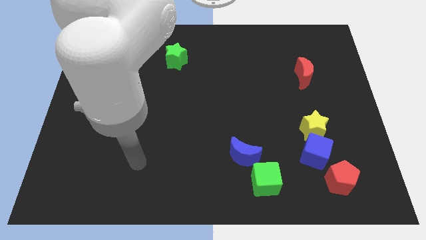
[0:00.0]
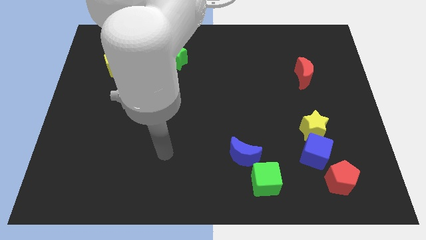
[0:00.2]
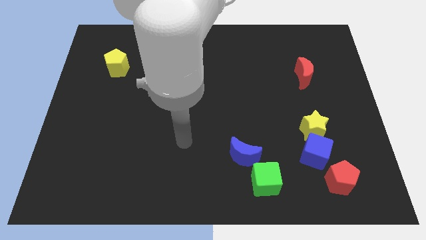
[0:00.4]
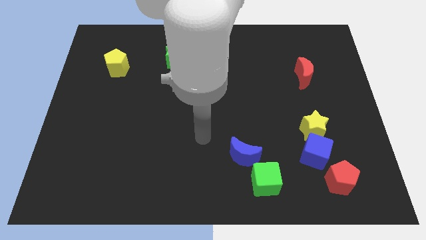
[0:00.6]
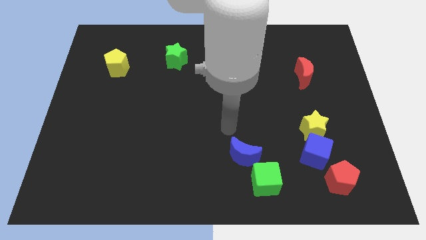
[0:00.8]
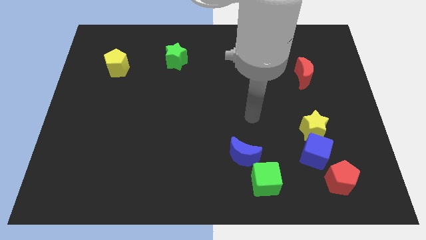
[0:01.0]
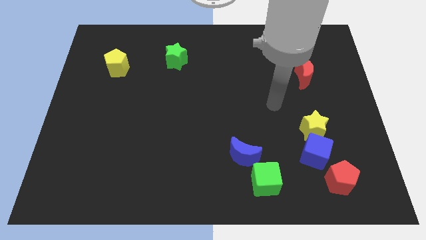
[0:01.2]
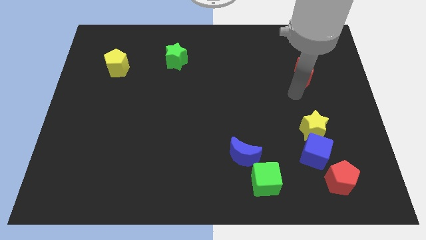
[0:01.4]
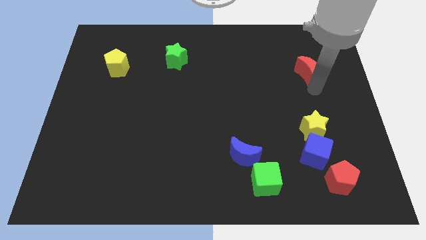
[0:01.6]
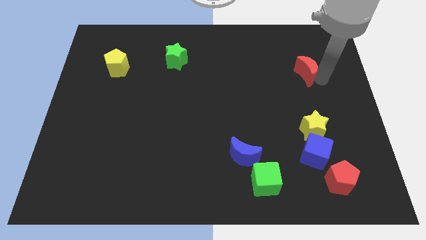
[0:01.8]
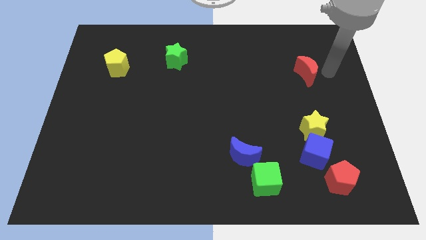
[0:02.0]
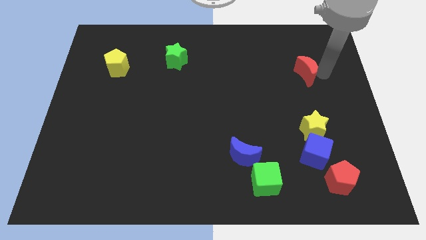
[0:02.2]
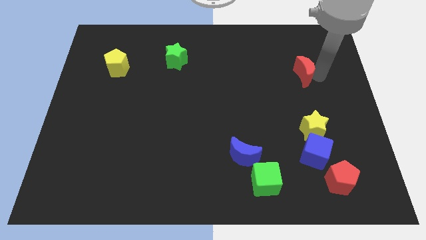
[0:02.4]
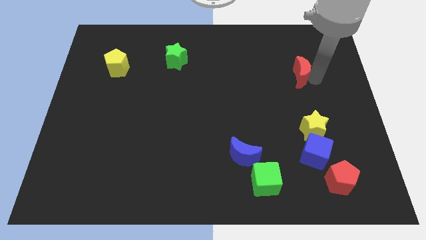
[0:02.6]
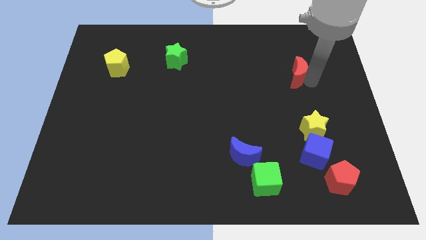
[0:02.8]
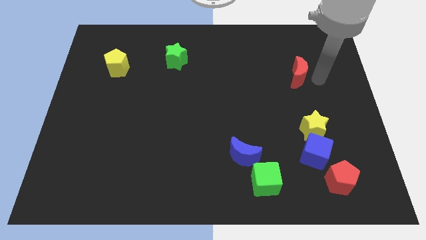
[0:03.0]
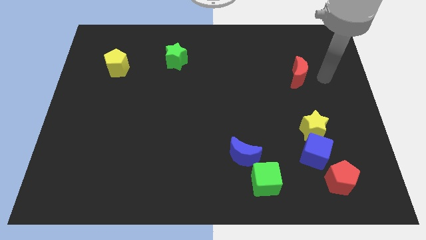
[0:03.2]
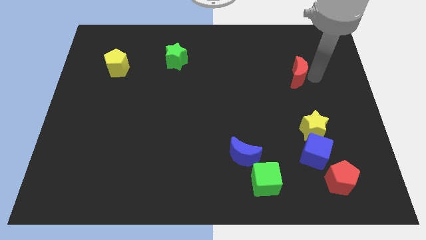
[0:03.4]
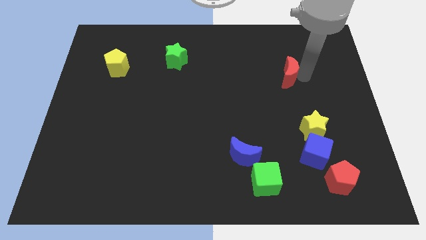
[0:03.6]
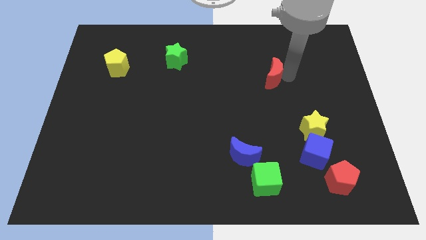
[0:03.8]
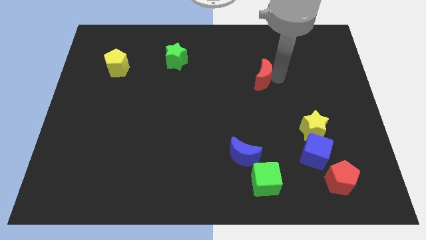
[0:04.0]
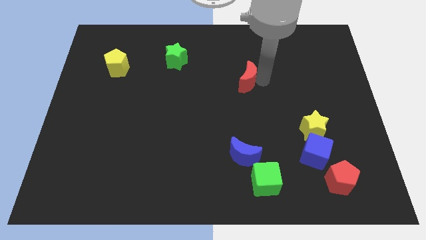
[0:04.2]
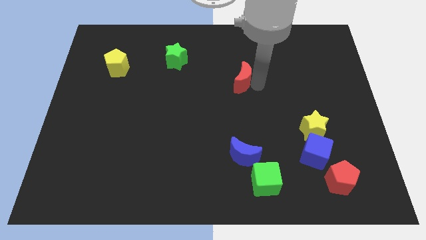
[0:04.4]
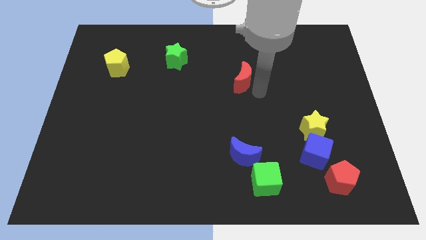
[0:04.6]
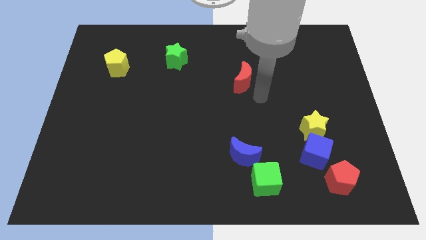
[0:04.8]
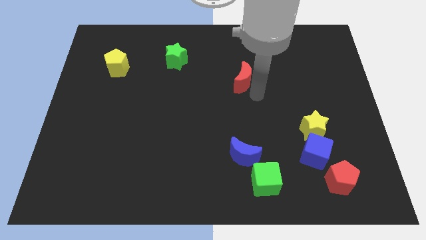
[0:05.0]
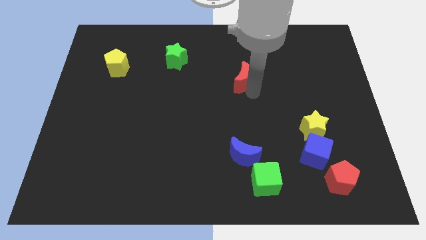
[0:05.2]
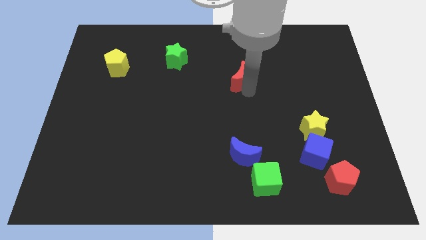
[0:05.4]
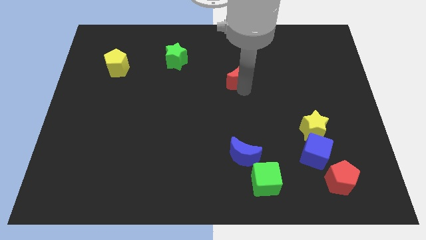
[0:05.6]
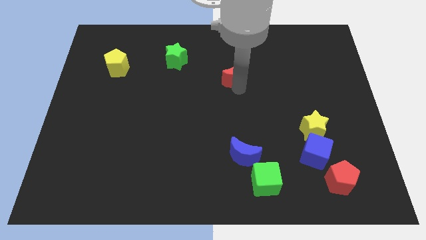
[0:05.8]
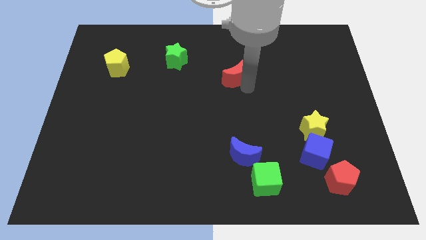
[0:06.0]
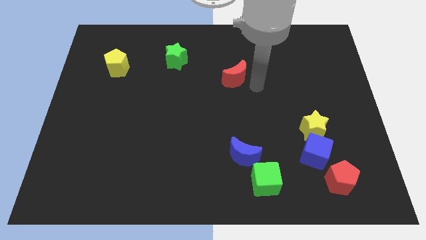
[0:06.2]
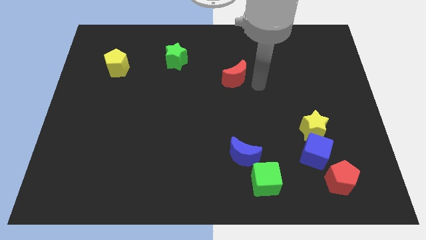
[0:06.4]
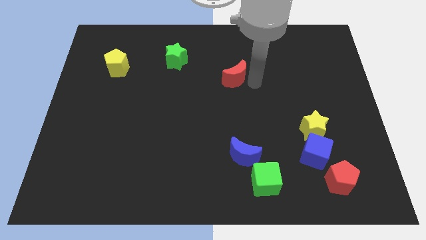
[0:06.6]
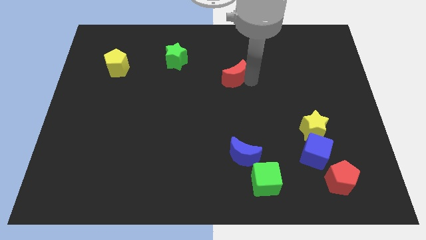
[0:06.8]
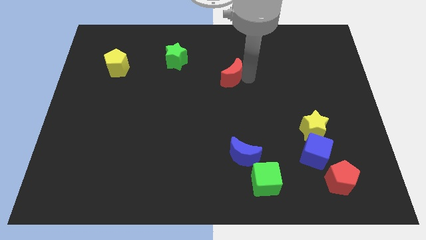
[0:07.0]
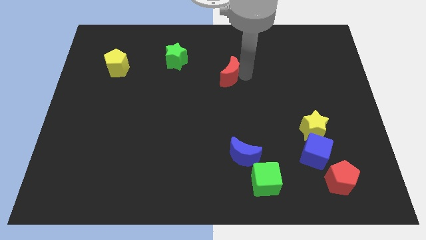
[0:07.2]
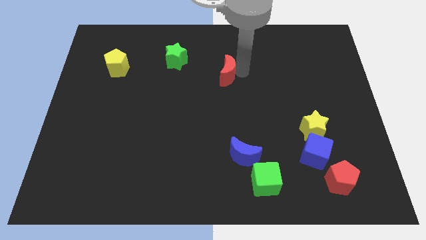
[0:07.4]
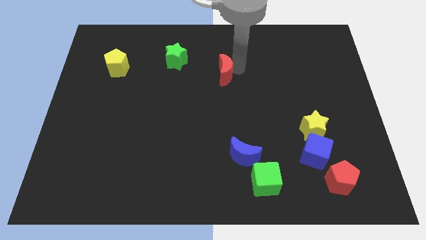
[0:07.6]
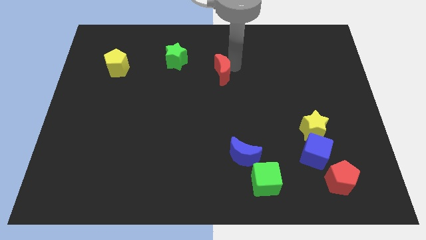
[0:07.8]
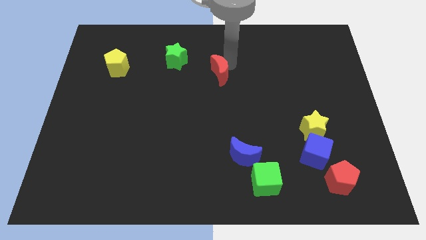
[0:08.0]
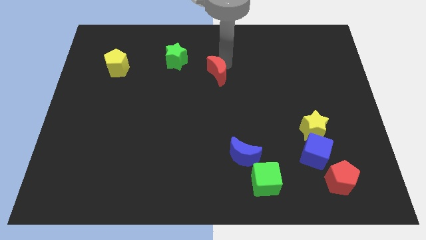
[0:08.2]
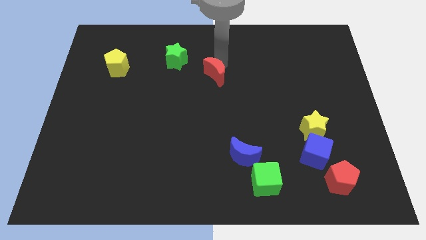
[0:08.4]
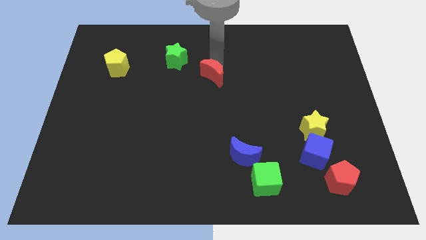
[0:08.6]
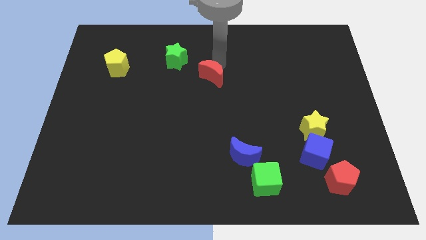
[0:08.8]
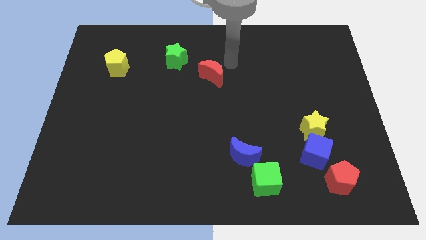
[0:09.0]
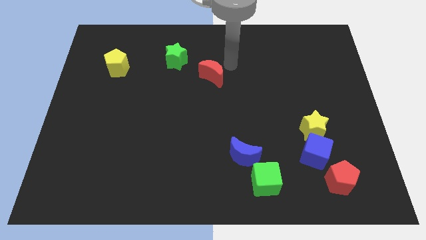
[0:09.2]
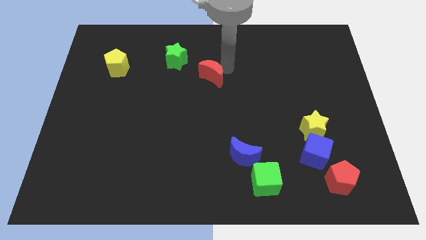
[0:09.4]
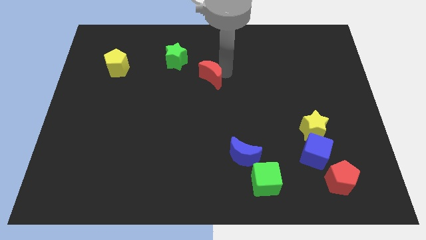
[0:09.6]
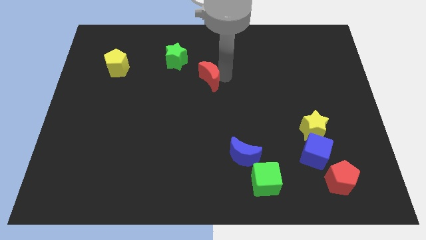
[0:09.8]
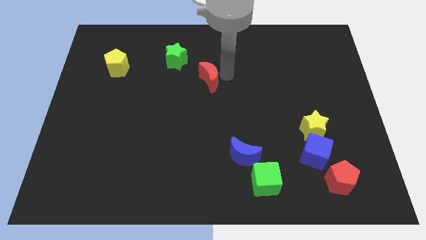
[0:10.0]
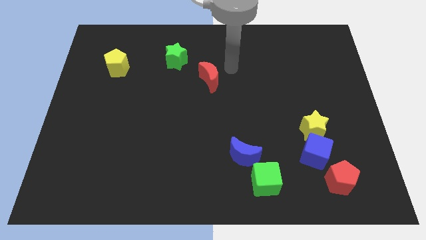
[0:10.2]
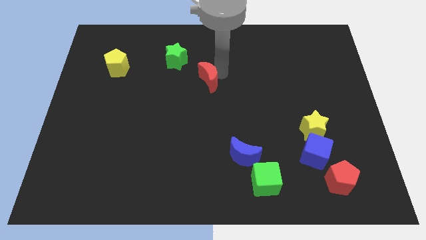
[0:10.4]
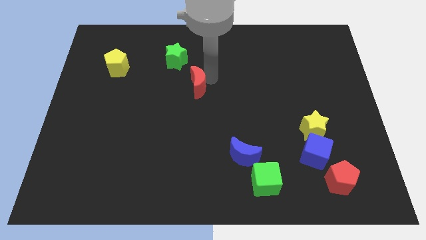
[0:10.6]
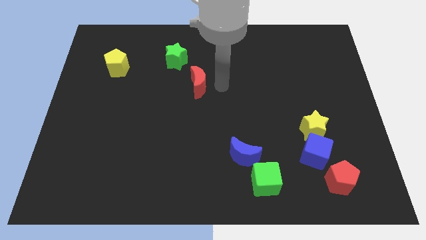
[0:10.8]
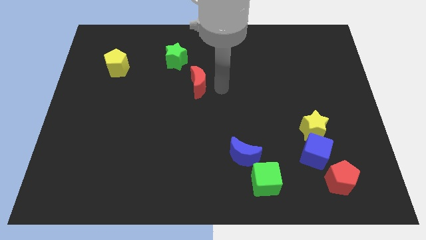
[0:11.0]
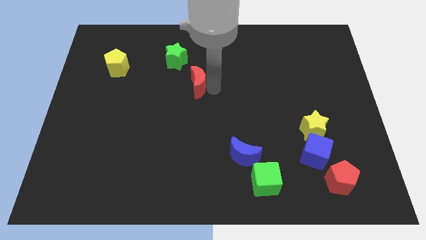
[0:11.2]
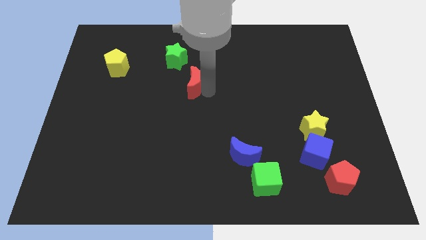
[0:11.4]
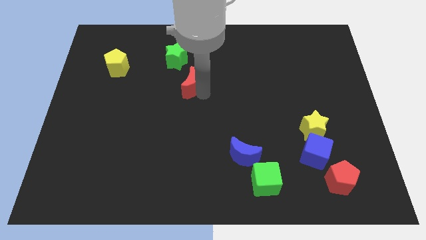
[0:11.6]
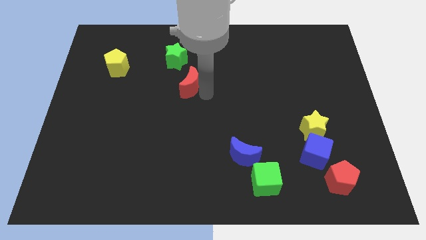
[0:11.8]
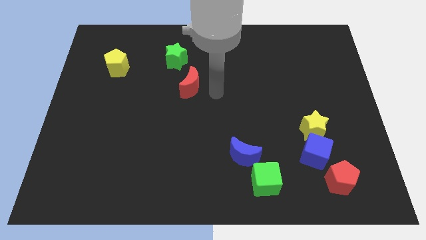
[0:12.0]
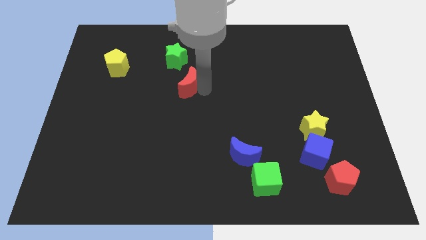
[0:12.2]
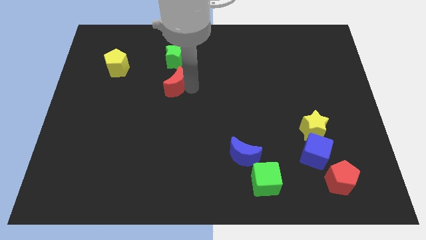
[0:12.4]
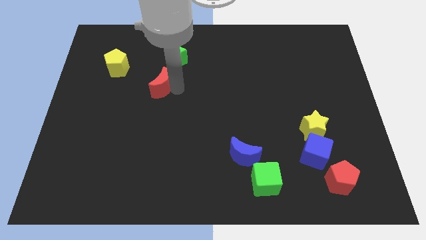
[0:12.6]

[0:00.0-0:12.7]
slide the red moon to the bottom left side of the green star

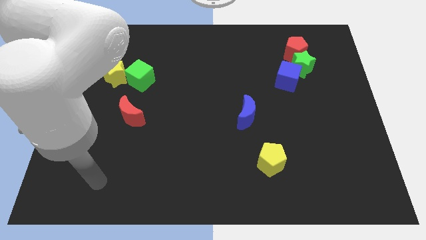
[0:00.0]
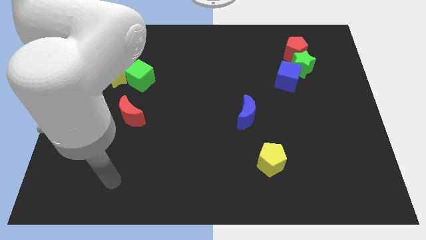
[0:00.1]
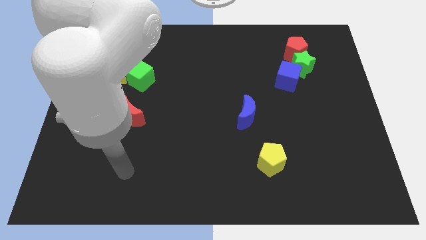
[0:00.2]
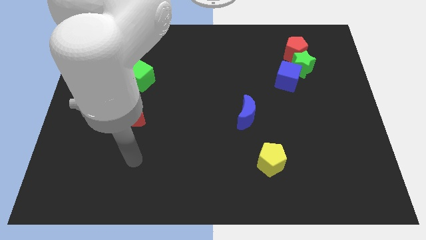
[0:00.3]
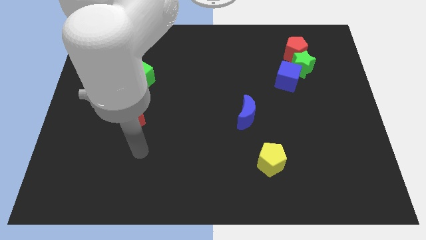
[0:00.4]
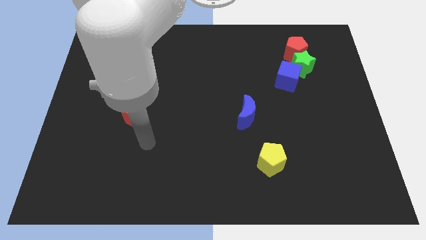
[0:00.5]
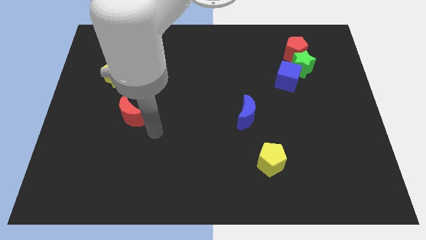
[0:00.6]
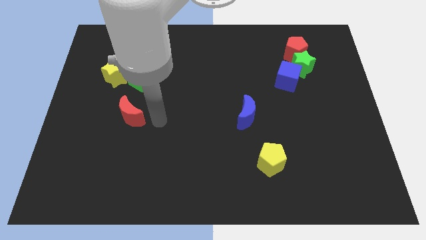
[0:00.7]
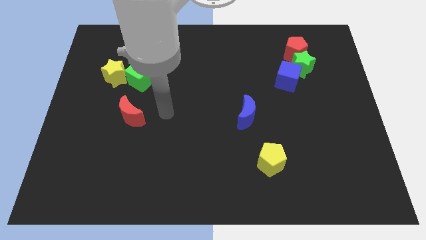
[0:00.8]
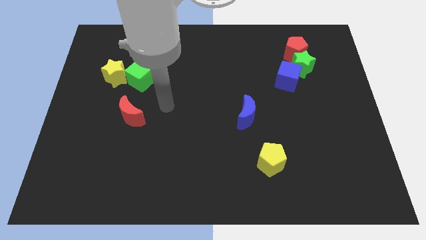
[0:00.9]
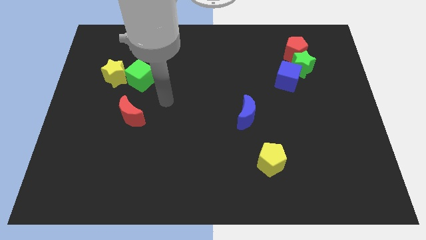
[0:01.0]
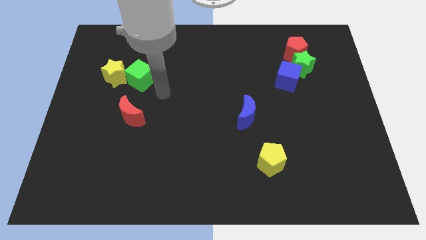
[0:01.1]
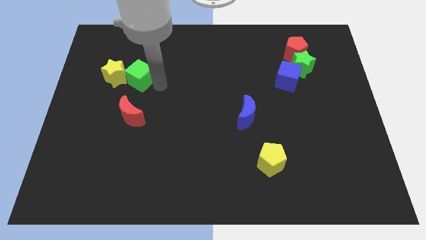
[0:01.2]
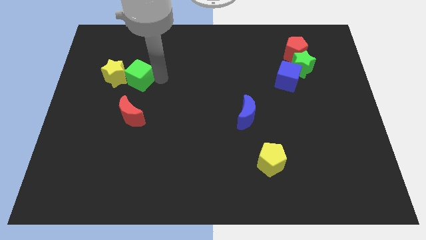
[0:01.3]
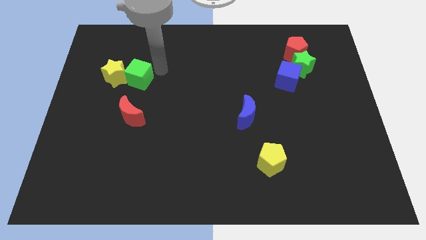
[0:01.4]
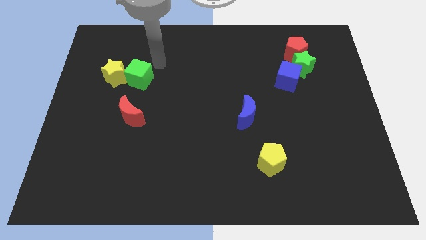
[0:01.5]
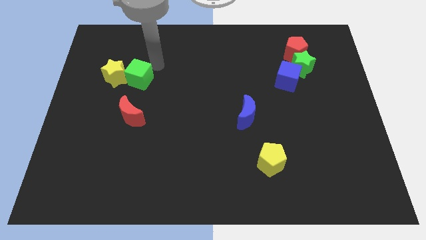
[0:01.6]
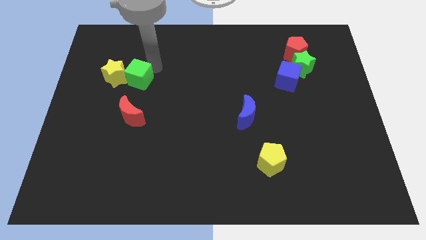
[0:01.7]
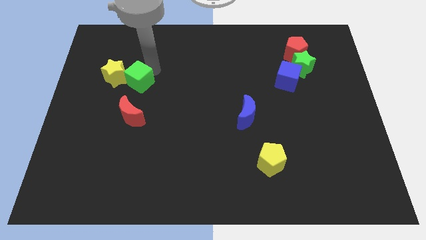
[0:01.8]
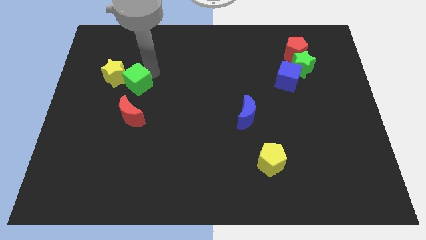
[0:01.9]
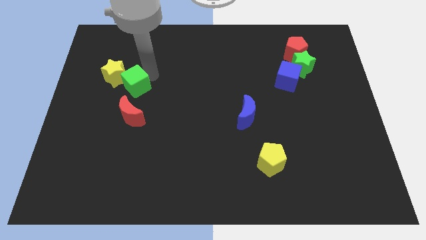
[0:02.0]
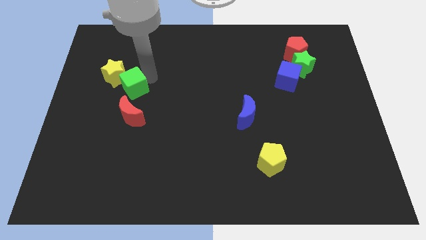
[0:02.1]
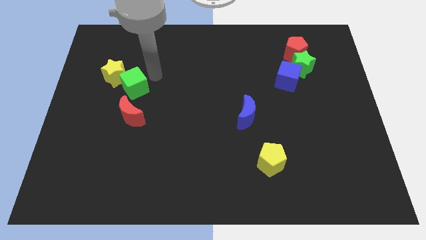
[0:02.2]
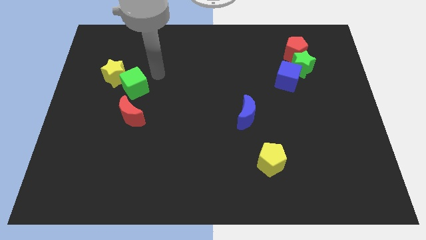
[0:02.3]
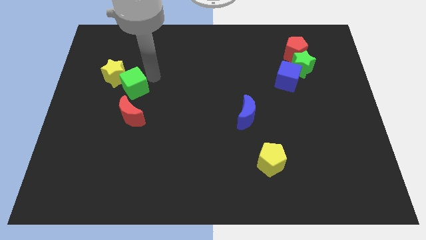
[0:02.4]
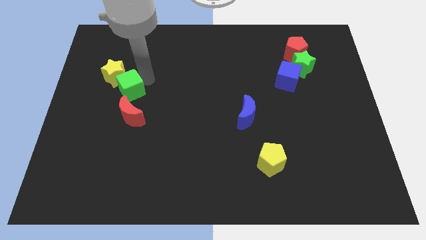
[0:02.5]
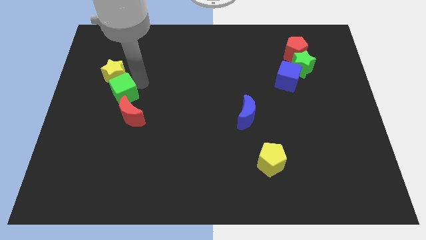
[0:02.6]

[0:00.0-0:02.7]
slide the green cube diagonally up and to the left of the red moon
